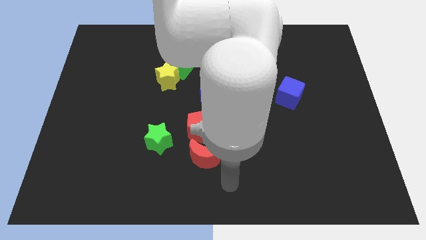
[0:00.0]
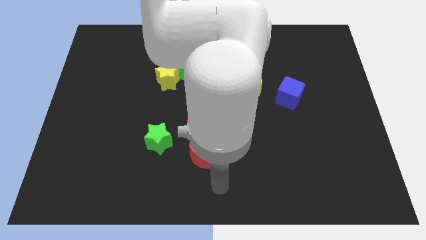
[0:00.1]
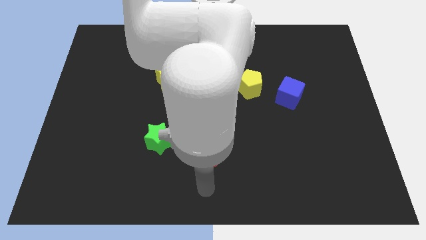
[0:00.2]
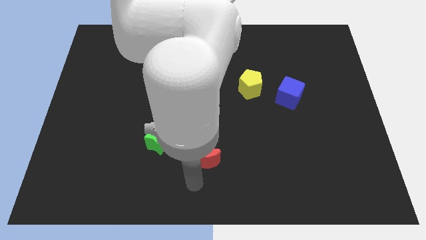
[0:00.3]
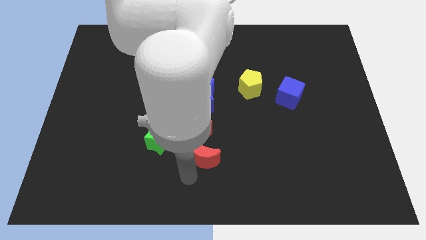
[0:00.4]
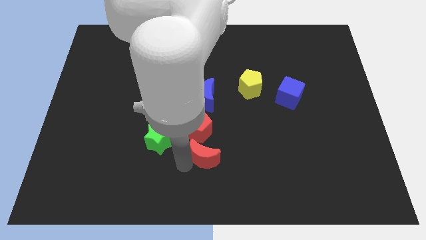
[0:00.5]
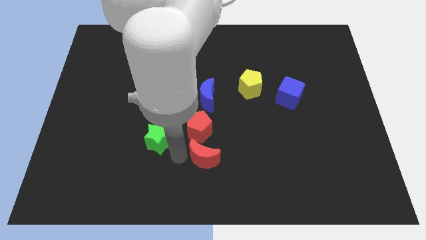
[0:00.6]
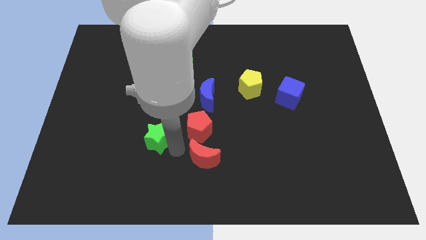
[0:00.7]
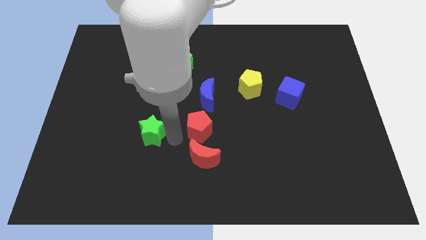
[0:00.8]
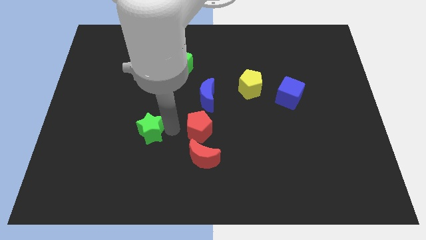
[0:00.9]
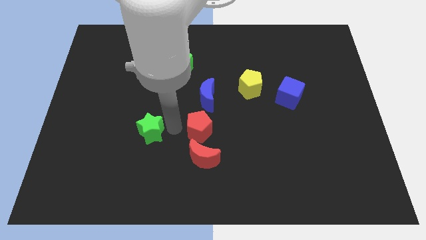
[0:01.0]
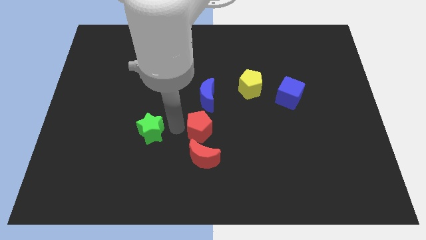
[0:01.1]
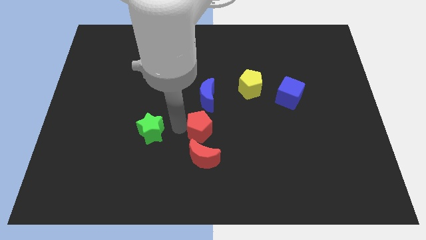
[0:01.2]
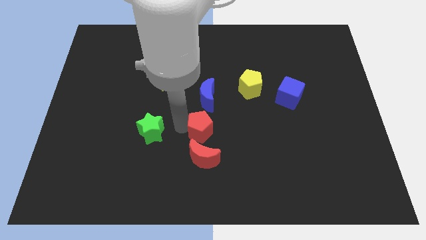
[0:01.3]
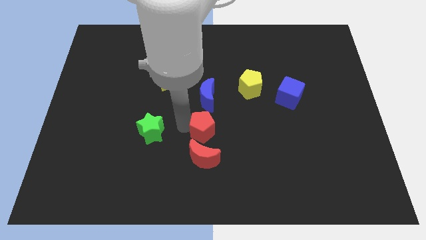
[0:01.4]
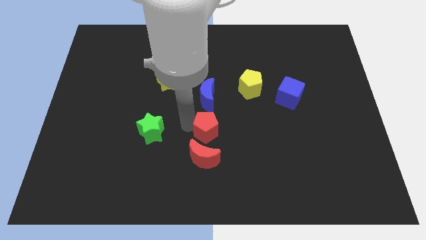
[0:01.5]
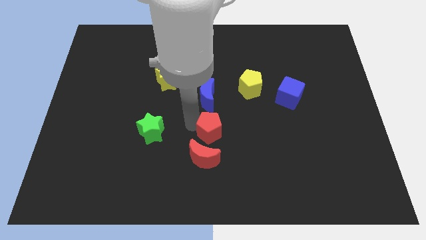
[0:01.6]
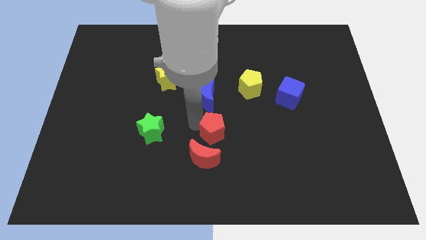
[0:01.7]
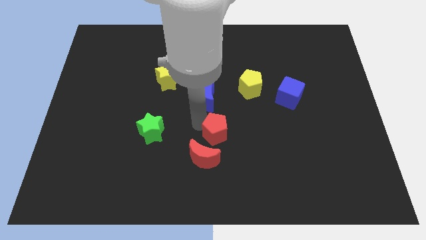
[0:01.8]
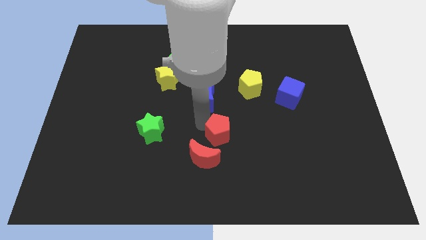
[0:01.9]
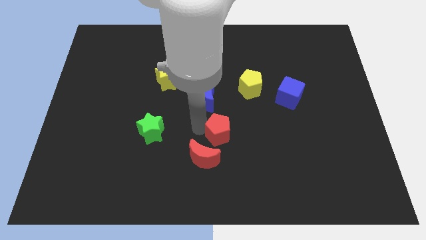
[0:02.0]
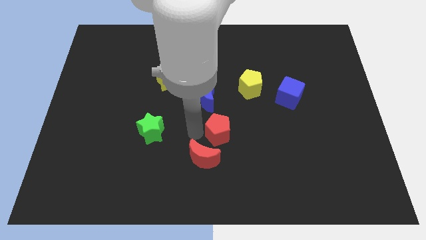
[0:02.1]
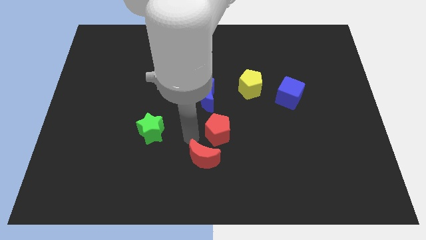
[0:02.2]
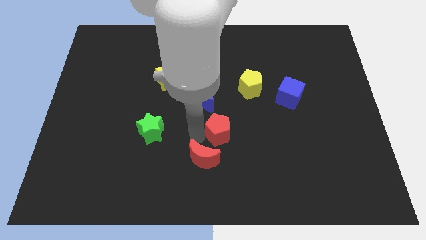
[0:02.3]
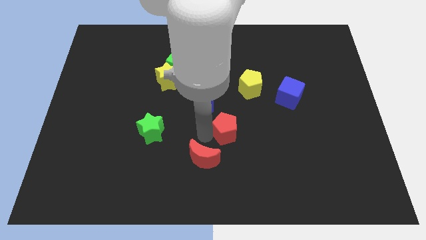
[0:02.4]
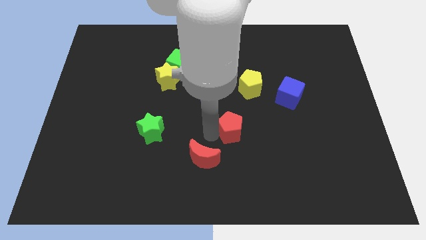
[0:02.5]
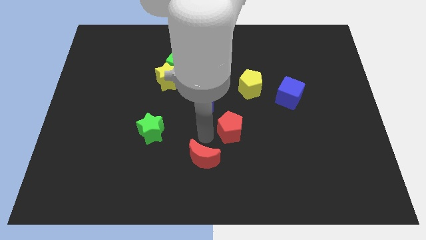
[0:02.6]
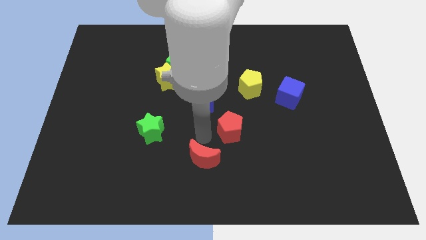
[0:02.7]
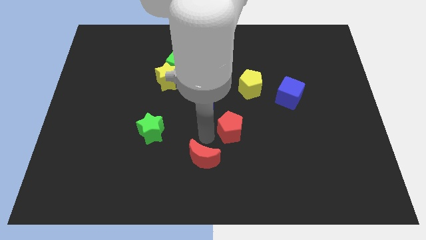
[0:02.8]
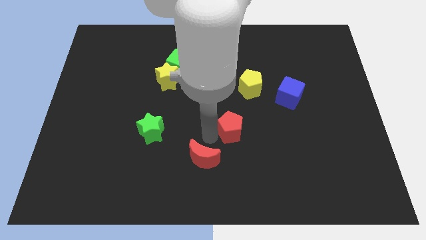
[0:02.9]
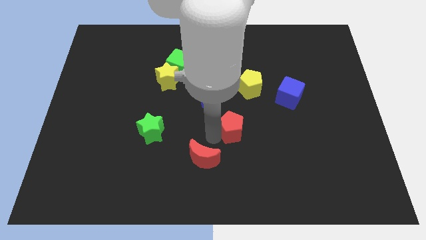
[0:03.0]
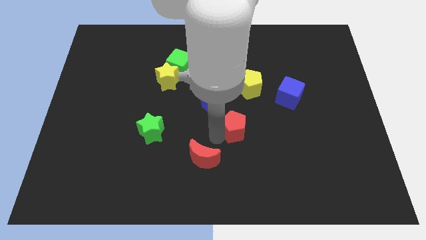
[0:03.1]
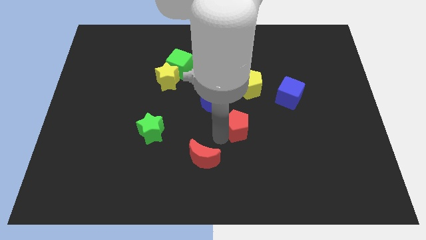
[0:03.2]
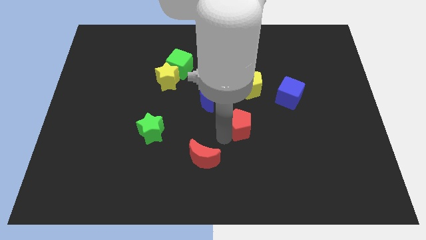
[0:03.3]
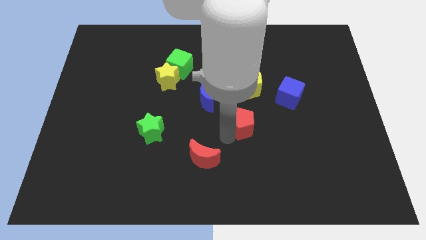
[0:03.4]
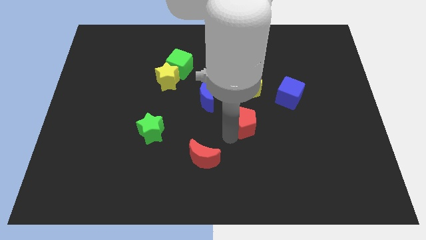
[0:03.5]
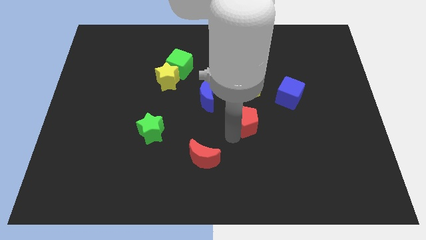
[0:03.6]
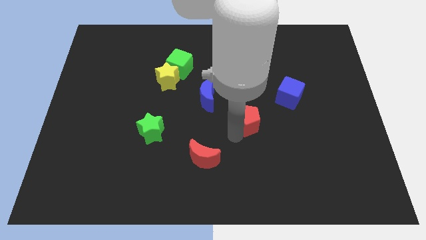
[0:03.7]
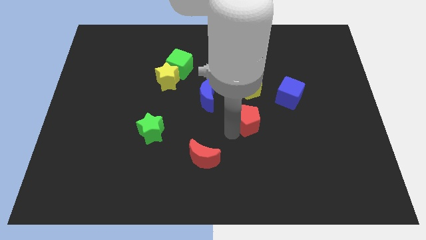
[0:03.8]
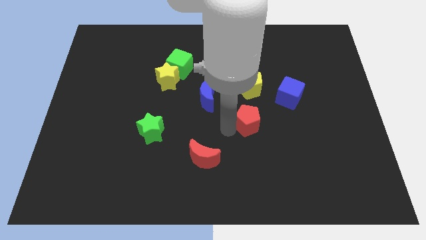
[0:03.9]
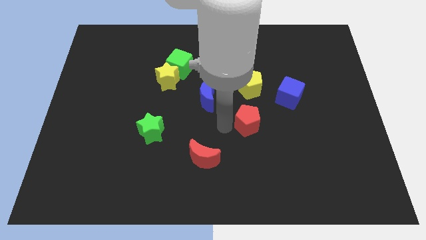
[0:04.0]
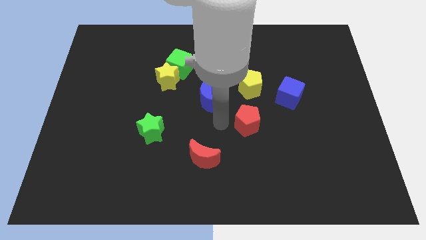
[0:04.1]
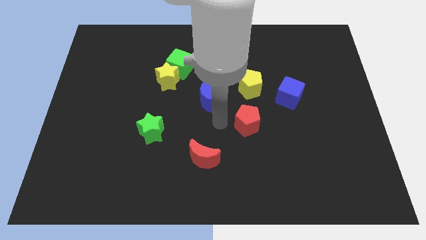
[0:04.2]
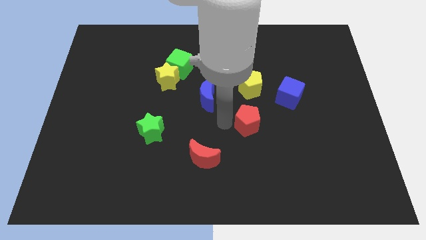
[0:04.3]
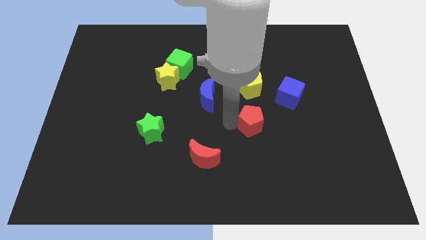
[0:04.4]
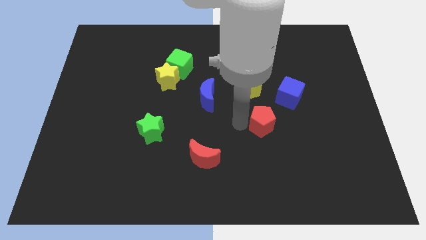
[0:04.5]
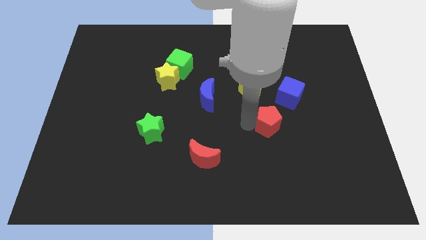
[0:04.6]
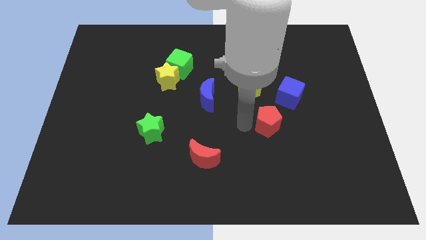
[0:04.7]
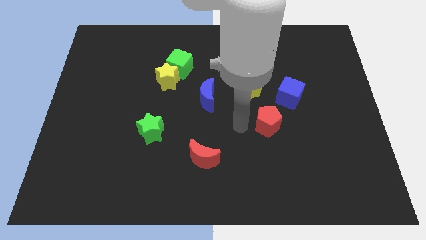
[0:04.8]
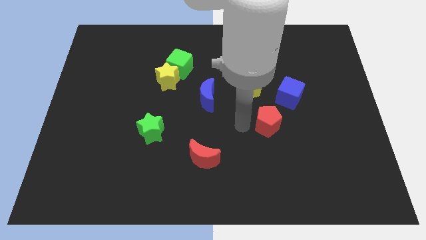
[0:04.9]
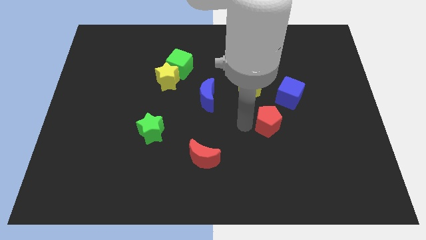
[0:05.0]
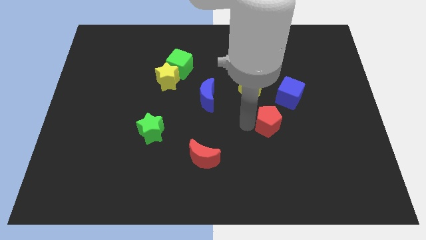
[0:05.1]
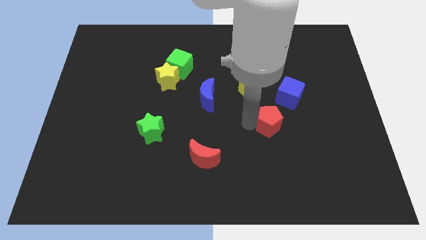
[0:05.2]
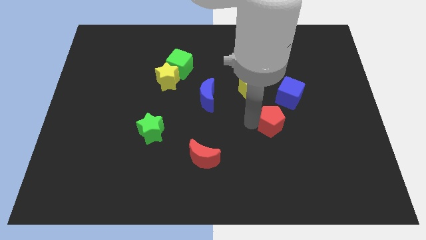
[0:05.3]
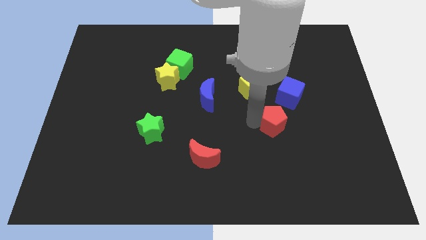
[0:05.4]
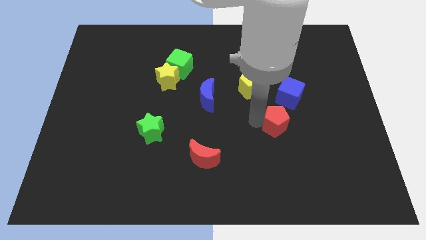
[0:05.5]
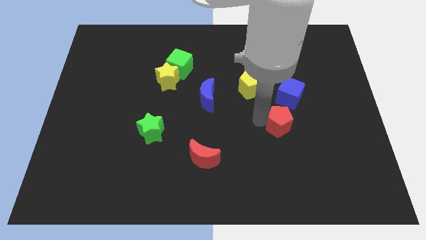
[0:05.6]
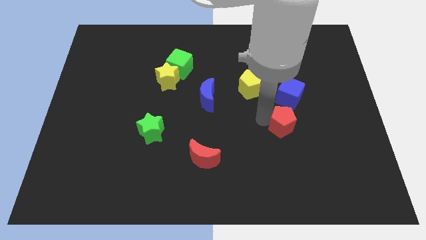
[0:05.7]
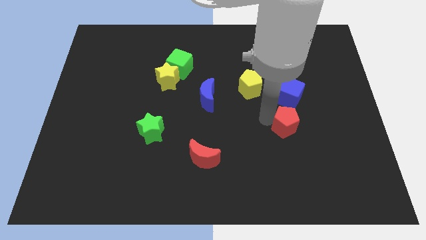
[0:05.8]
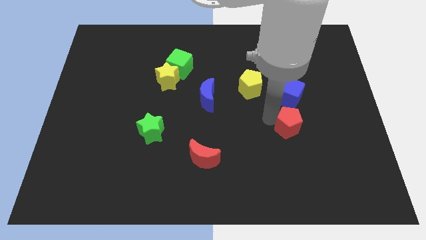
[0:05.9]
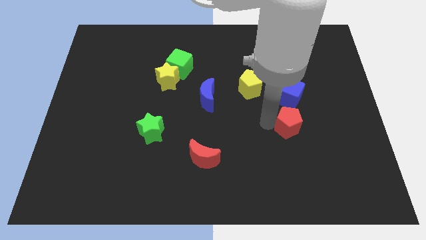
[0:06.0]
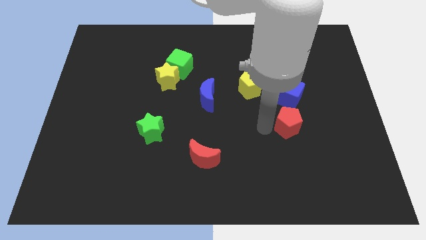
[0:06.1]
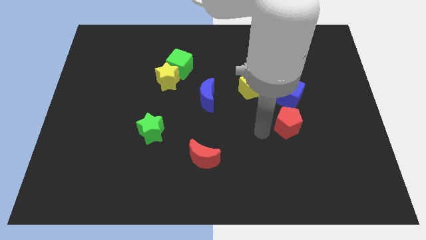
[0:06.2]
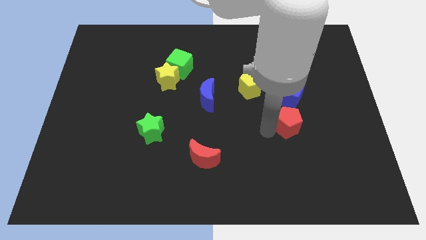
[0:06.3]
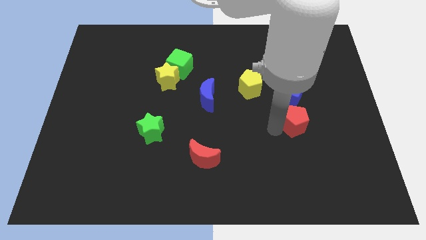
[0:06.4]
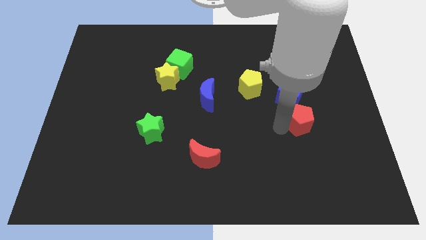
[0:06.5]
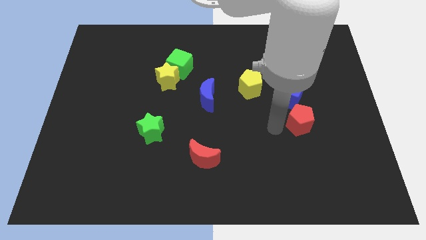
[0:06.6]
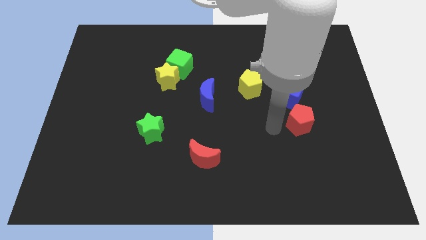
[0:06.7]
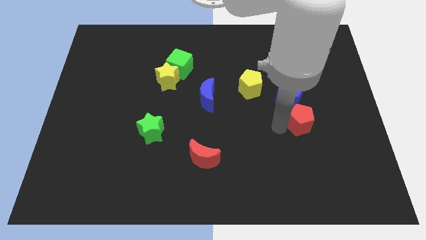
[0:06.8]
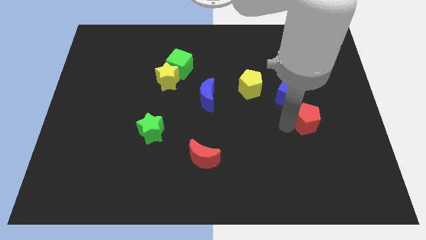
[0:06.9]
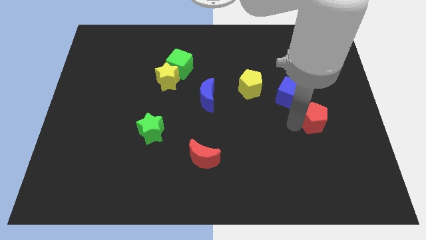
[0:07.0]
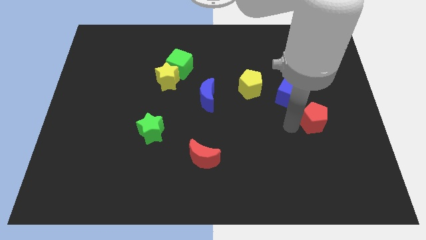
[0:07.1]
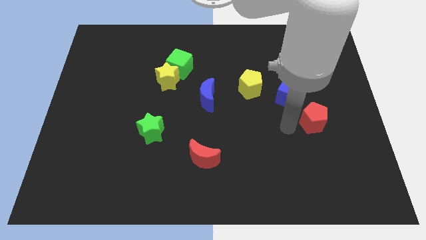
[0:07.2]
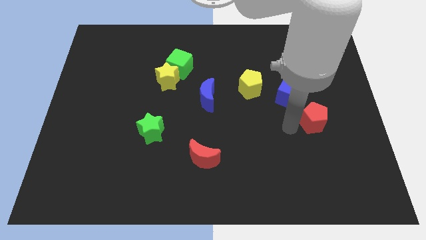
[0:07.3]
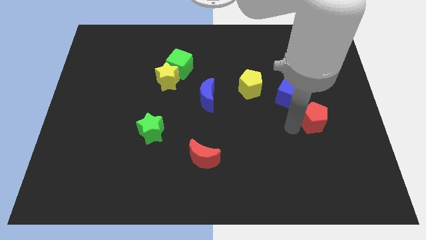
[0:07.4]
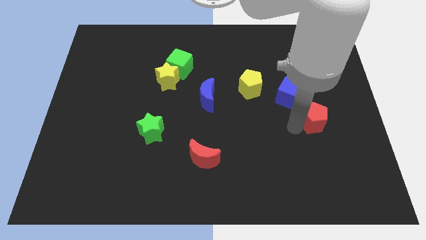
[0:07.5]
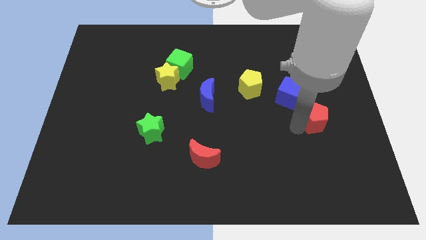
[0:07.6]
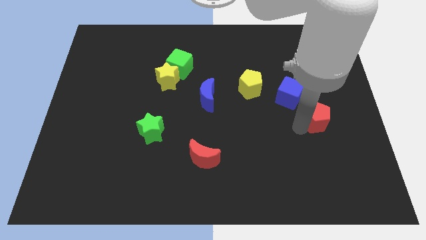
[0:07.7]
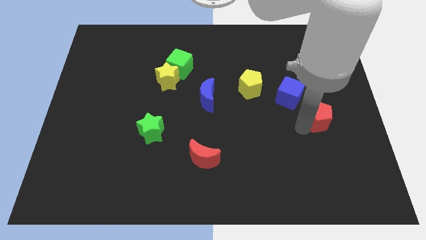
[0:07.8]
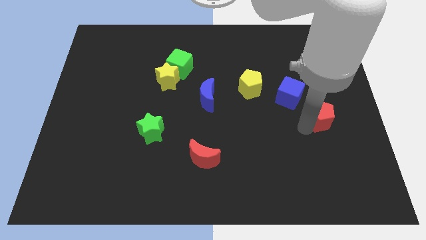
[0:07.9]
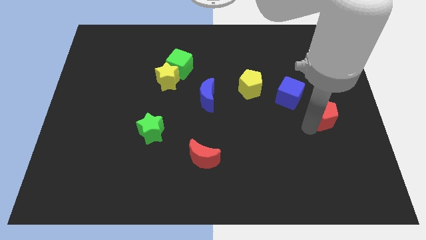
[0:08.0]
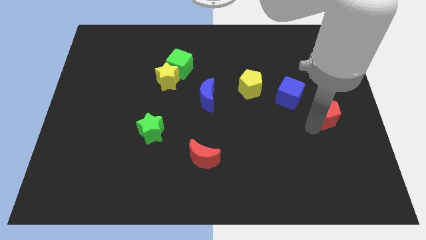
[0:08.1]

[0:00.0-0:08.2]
push the red pentagon to the center right
